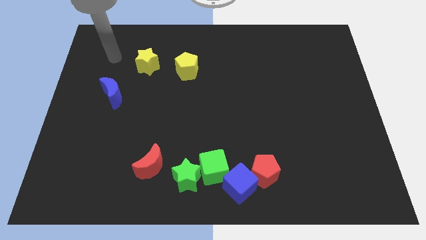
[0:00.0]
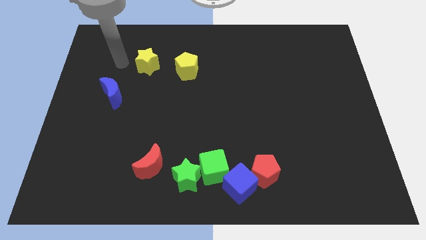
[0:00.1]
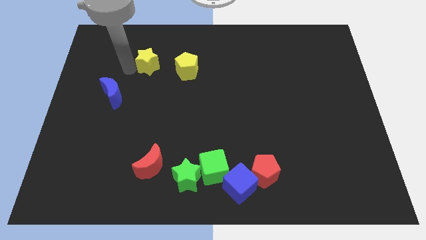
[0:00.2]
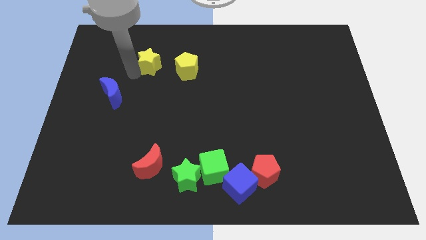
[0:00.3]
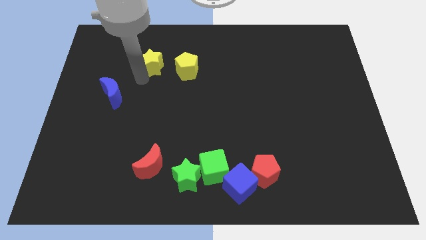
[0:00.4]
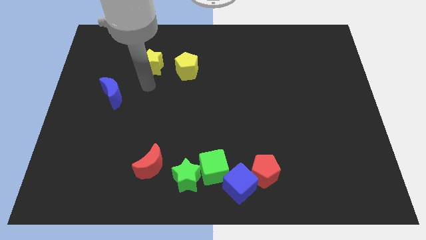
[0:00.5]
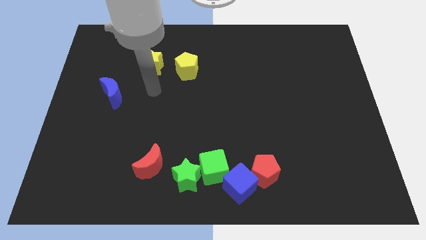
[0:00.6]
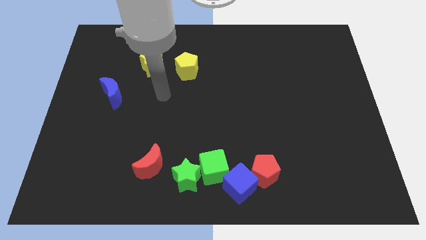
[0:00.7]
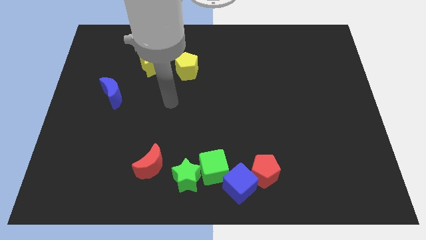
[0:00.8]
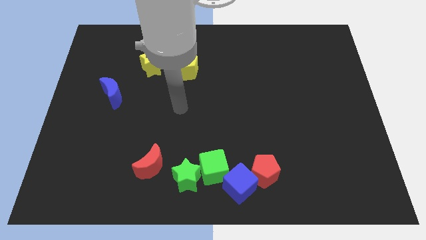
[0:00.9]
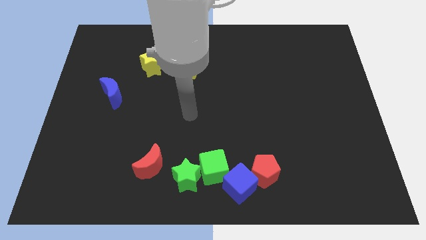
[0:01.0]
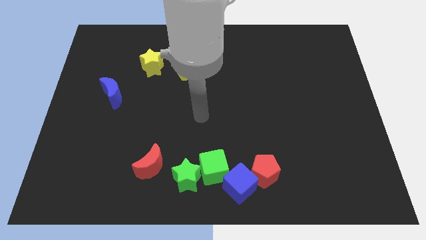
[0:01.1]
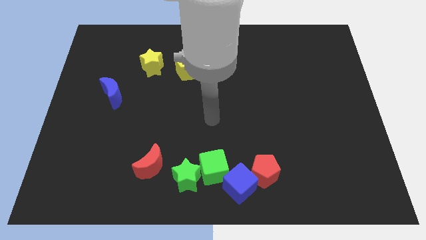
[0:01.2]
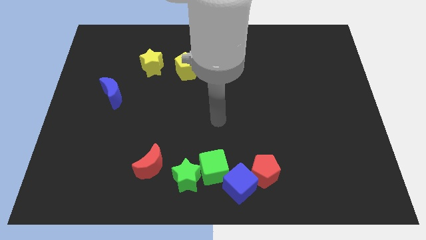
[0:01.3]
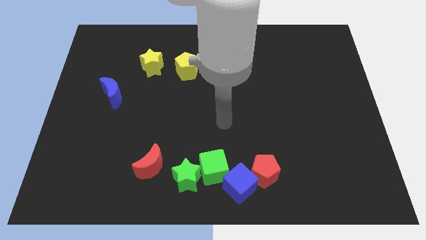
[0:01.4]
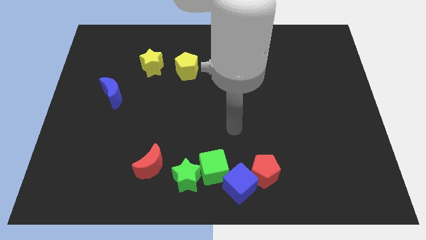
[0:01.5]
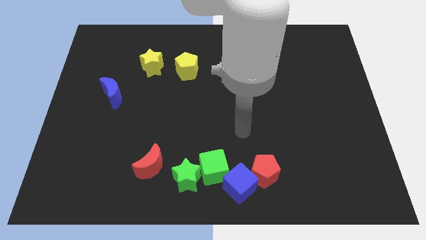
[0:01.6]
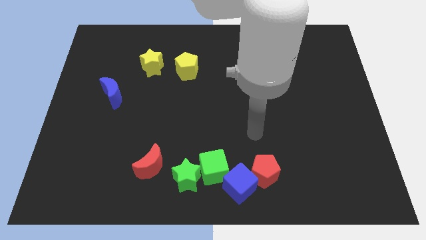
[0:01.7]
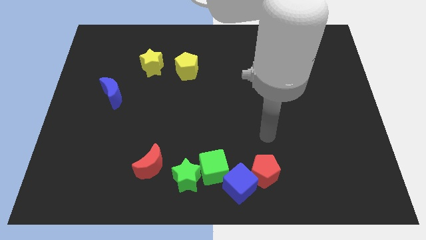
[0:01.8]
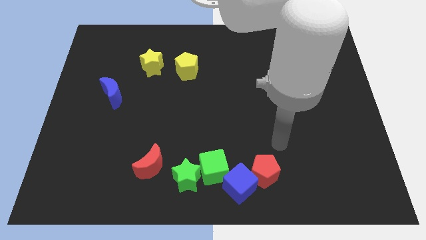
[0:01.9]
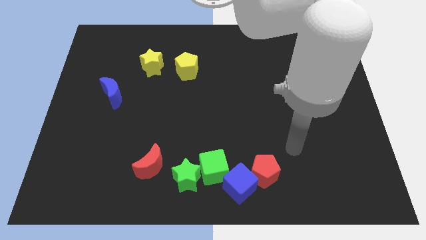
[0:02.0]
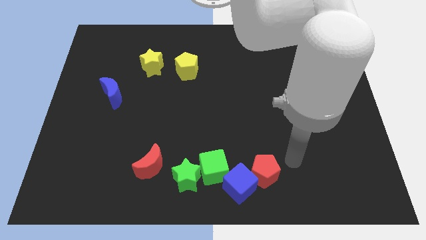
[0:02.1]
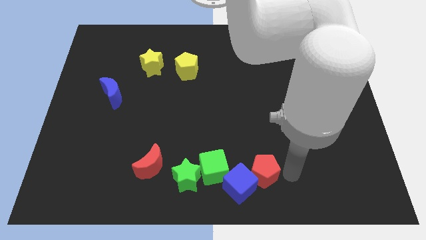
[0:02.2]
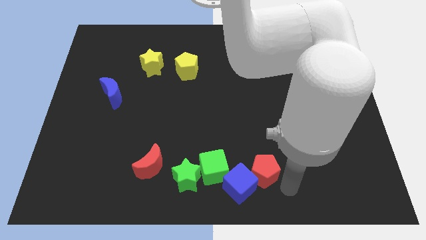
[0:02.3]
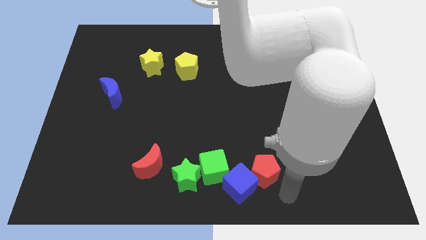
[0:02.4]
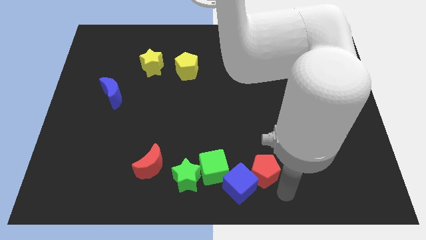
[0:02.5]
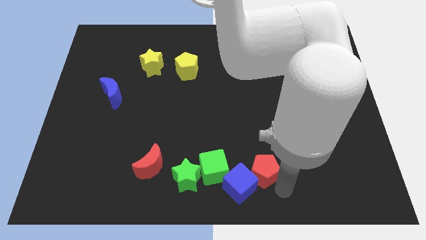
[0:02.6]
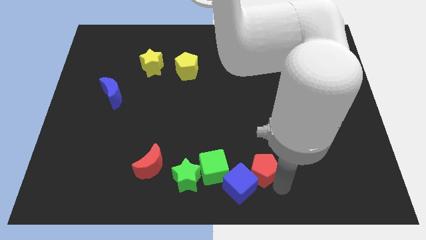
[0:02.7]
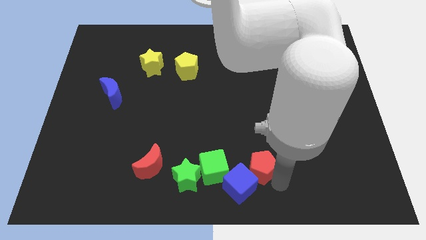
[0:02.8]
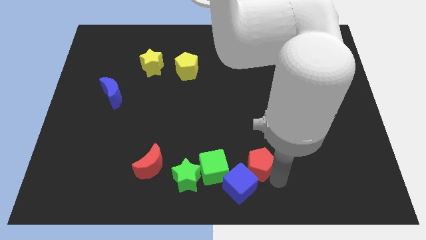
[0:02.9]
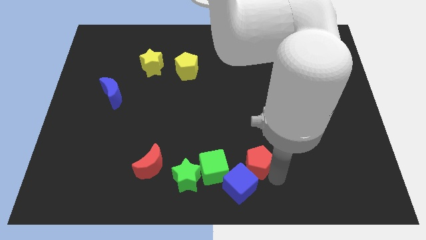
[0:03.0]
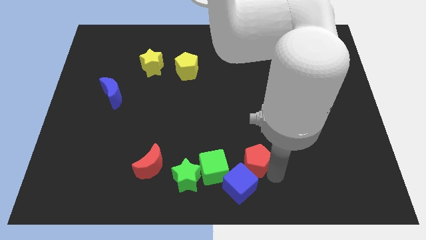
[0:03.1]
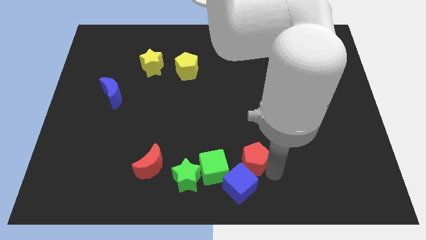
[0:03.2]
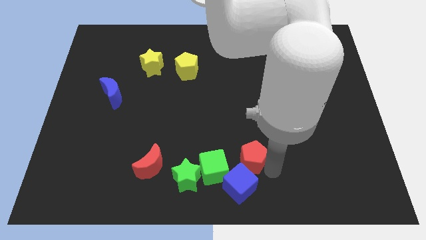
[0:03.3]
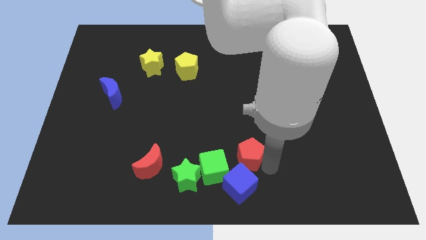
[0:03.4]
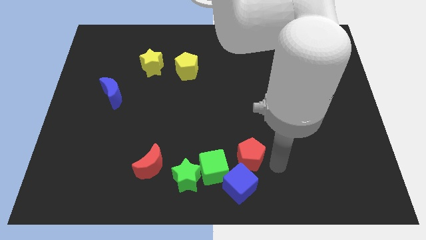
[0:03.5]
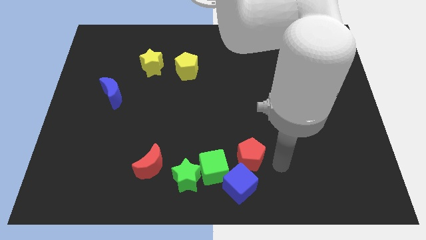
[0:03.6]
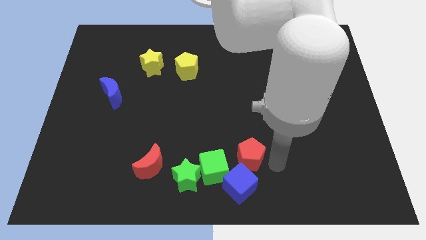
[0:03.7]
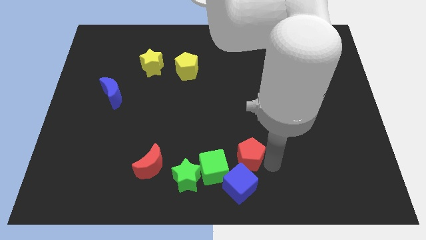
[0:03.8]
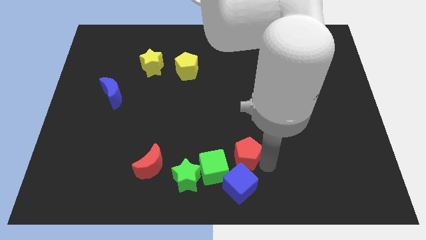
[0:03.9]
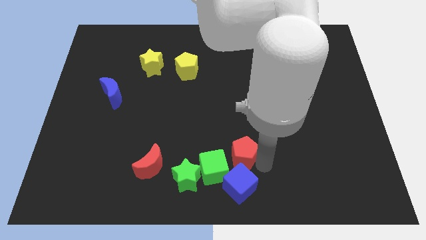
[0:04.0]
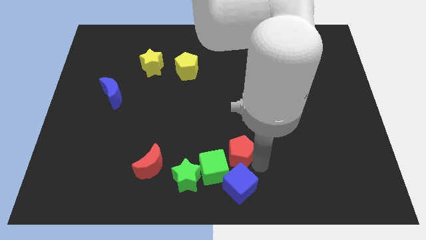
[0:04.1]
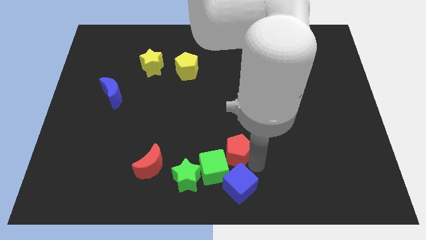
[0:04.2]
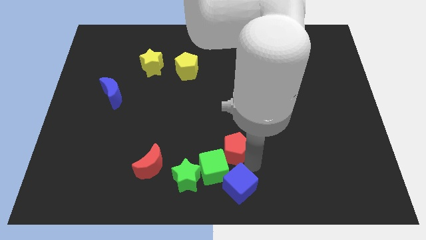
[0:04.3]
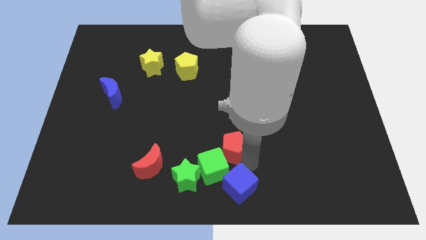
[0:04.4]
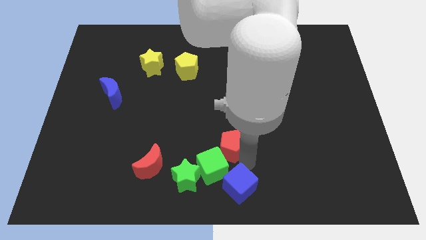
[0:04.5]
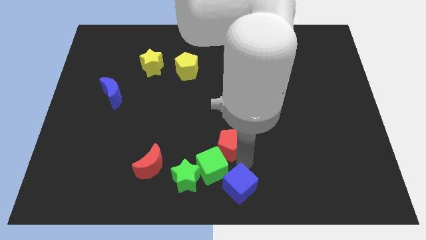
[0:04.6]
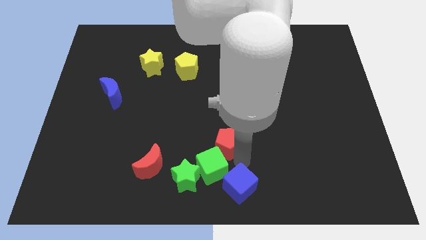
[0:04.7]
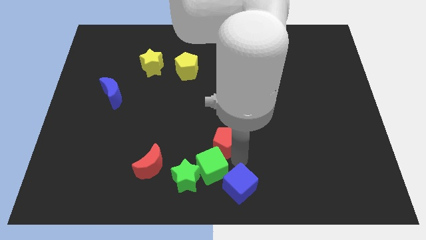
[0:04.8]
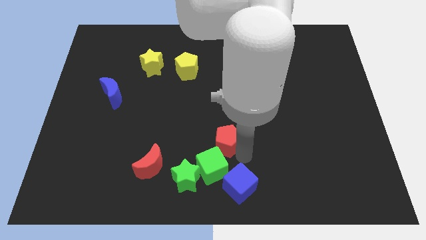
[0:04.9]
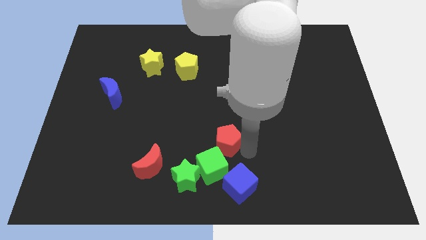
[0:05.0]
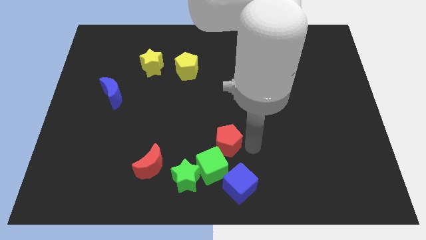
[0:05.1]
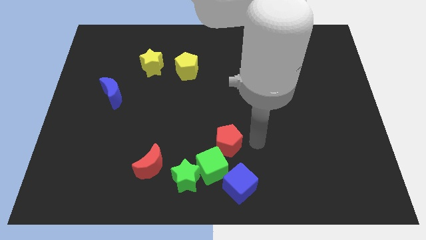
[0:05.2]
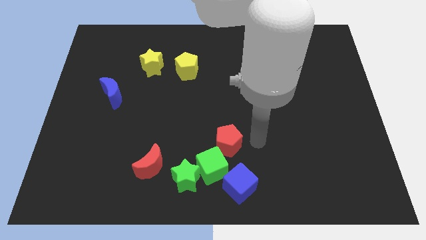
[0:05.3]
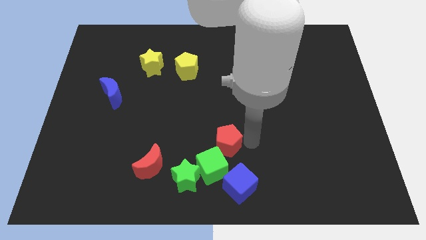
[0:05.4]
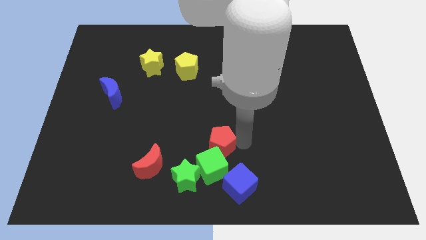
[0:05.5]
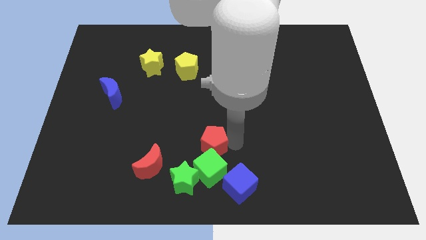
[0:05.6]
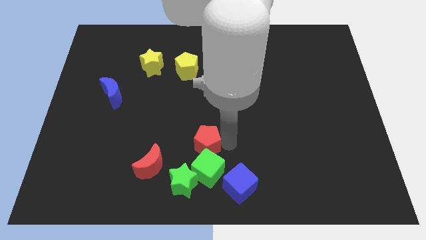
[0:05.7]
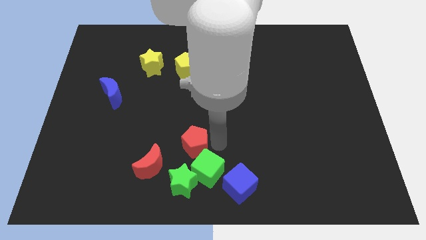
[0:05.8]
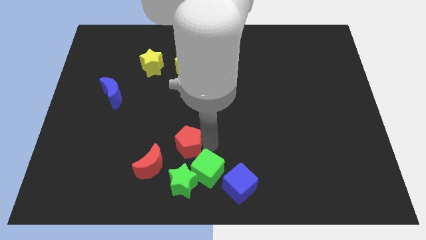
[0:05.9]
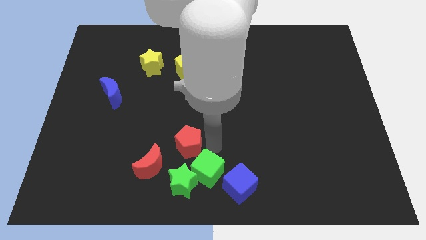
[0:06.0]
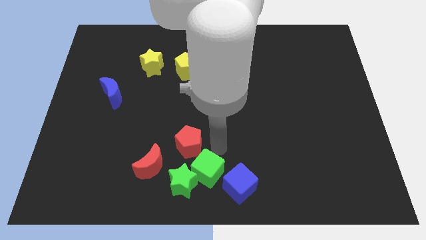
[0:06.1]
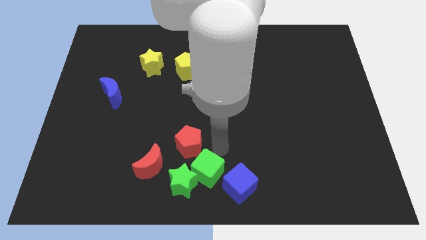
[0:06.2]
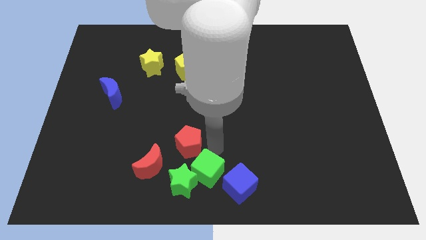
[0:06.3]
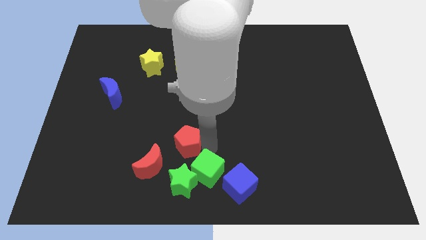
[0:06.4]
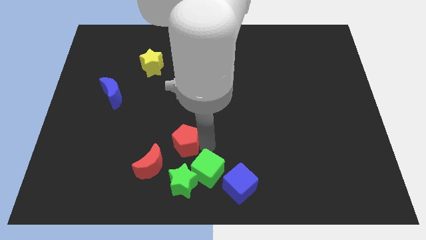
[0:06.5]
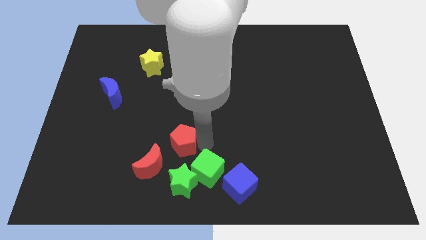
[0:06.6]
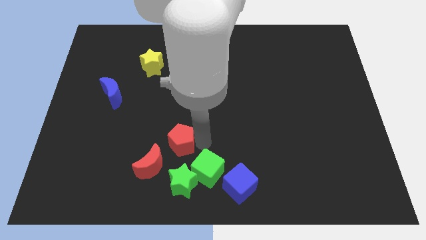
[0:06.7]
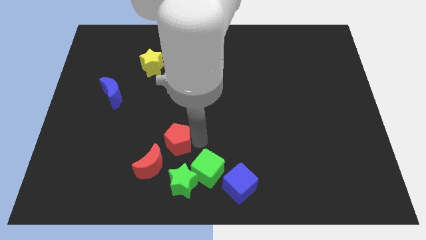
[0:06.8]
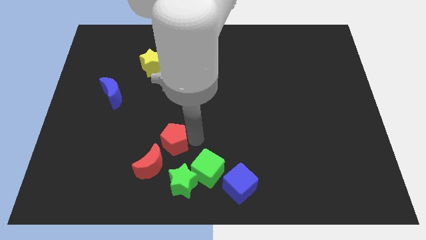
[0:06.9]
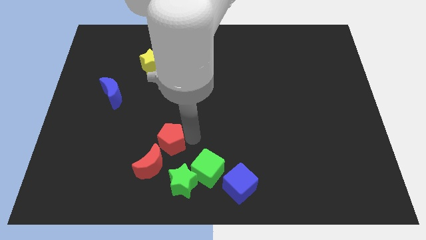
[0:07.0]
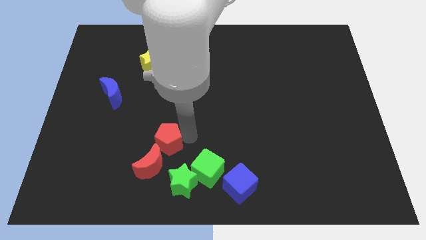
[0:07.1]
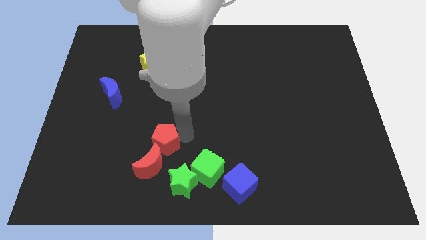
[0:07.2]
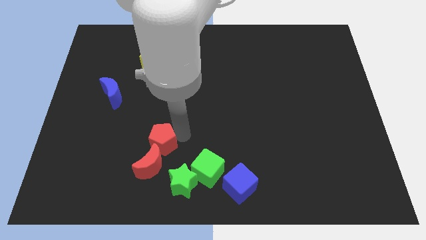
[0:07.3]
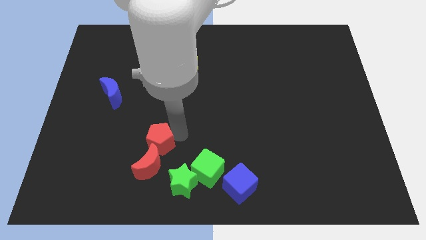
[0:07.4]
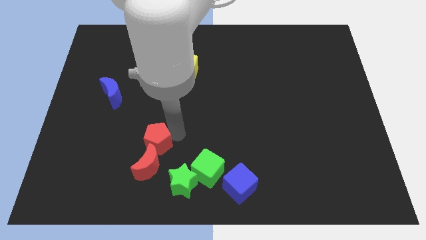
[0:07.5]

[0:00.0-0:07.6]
push the red pentagon left

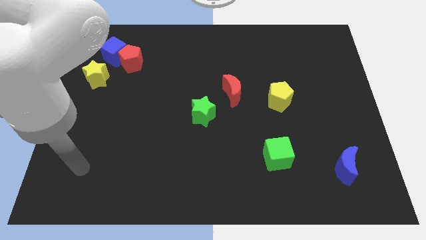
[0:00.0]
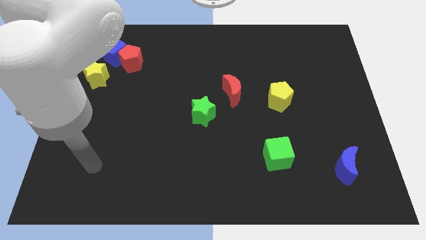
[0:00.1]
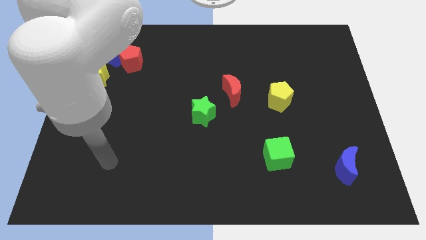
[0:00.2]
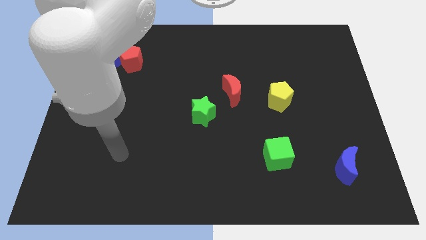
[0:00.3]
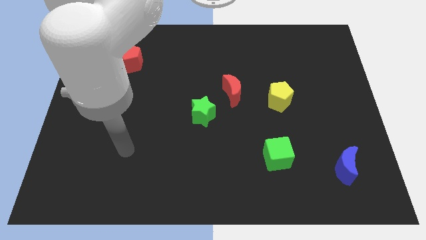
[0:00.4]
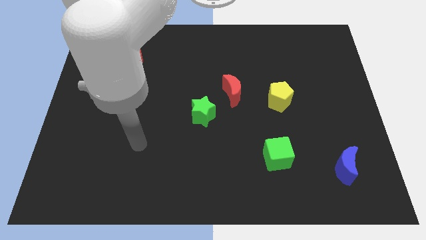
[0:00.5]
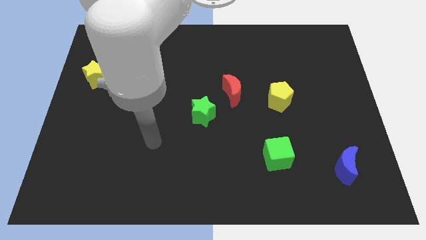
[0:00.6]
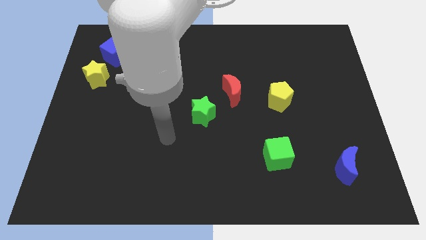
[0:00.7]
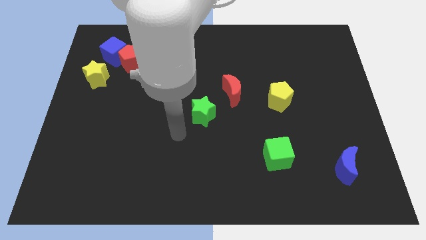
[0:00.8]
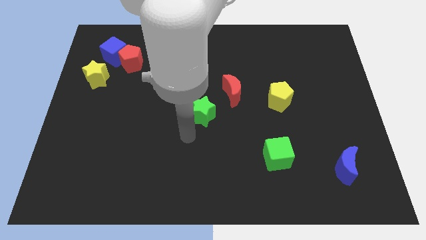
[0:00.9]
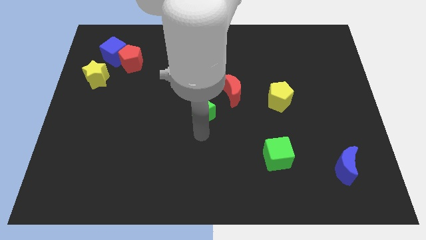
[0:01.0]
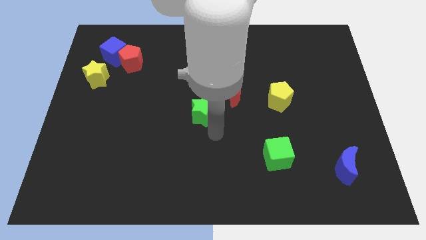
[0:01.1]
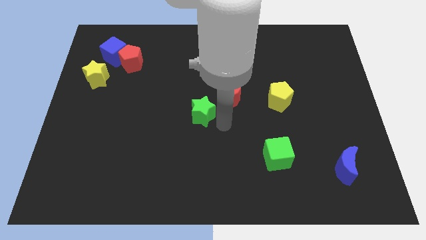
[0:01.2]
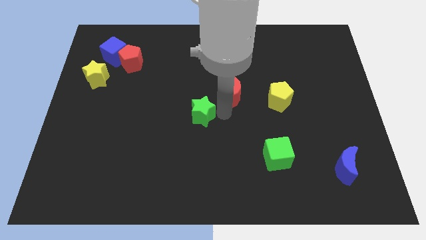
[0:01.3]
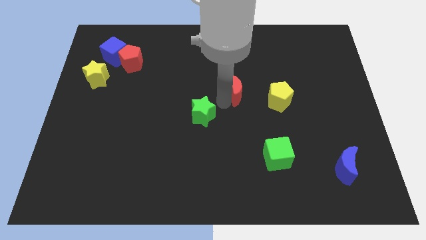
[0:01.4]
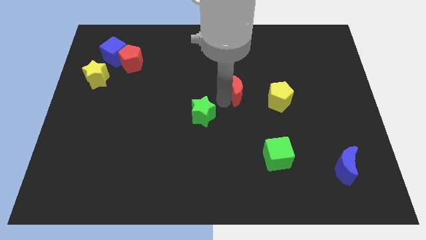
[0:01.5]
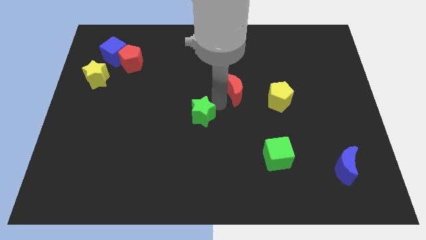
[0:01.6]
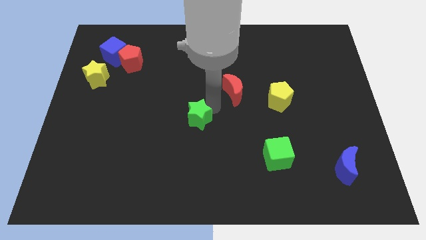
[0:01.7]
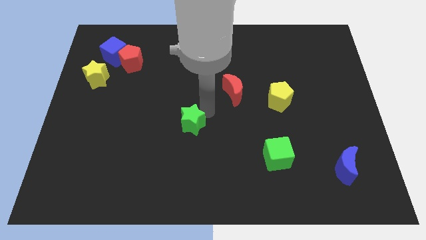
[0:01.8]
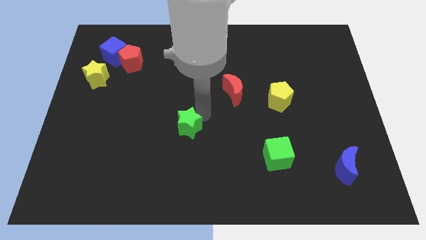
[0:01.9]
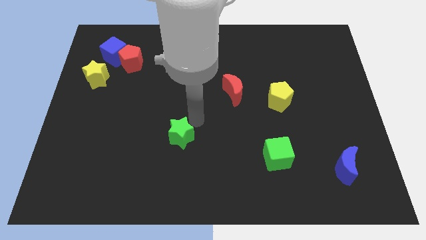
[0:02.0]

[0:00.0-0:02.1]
slightly move the green star down and left diagonally
